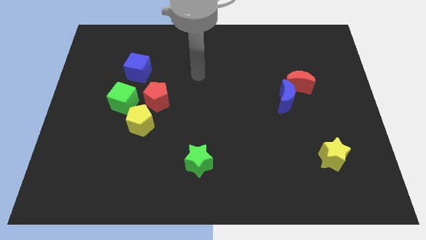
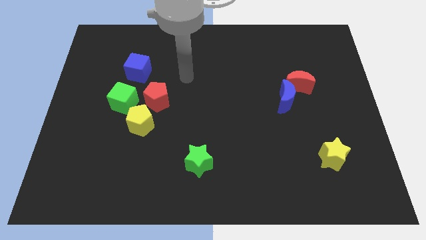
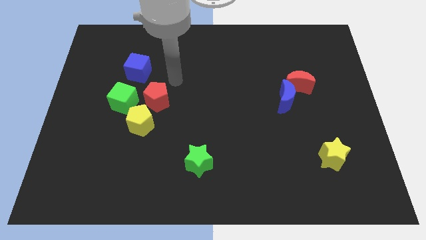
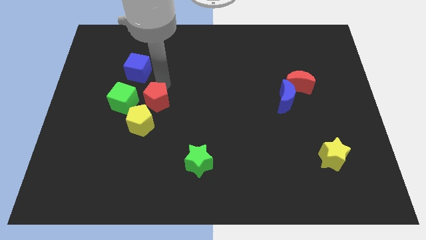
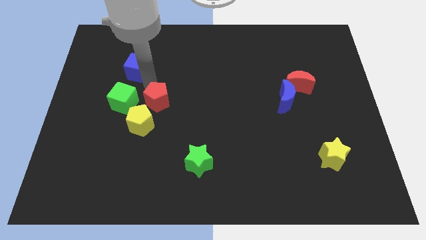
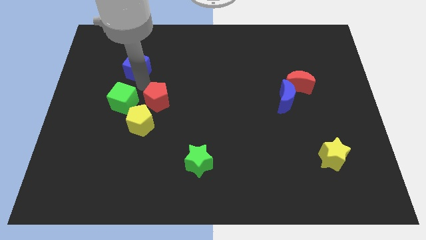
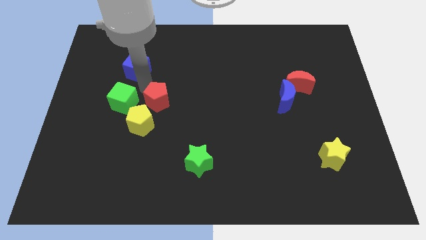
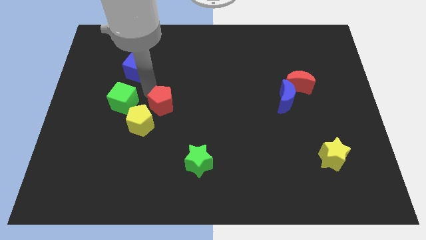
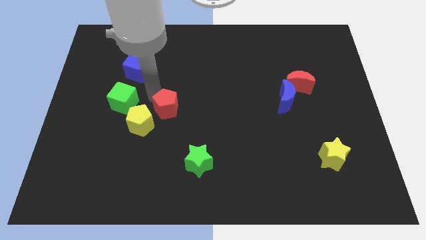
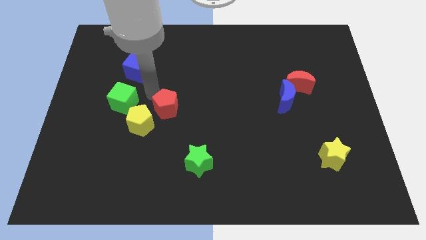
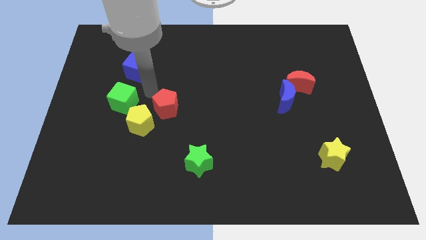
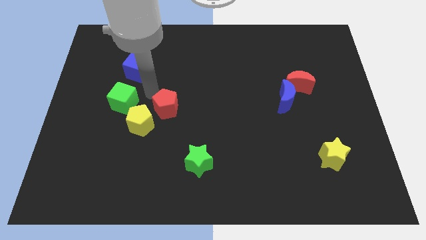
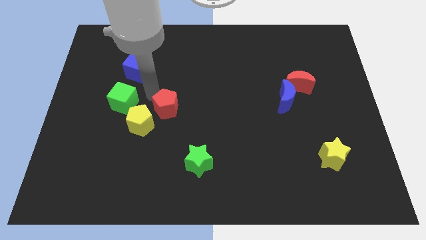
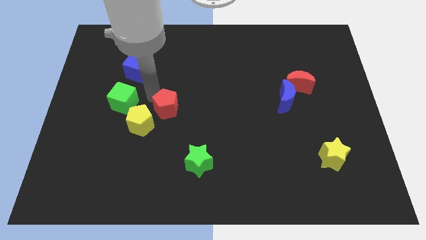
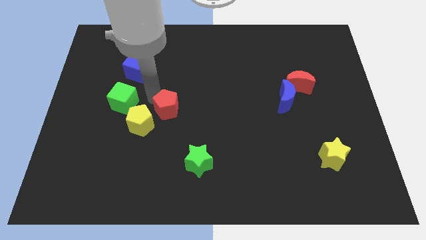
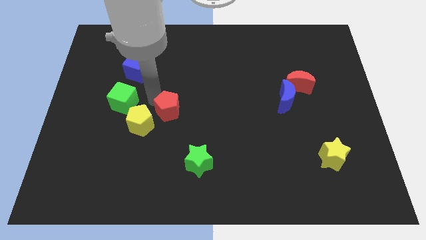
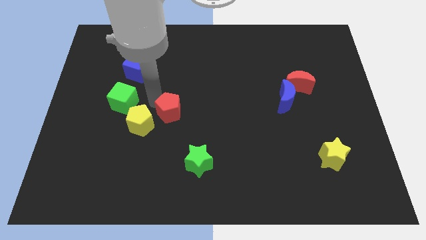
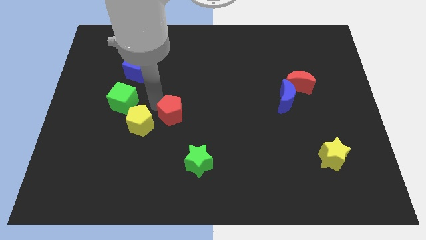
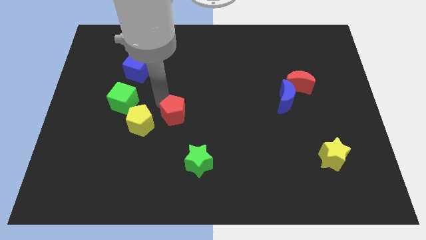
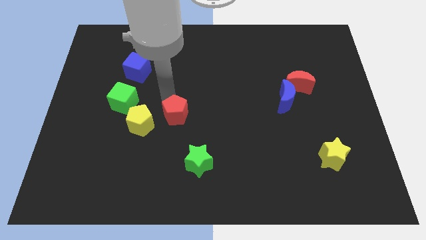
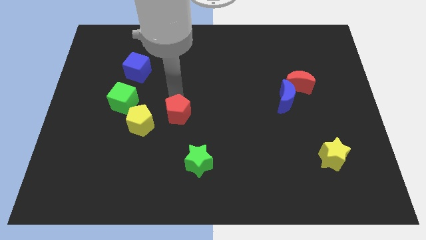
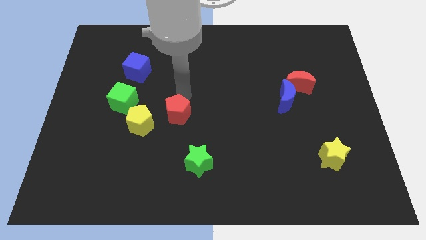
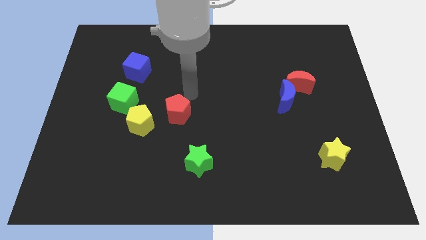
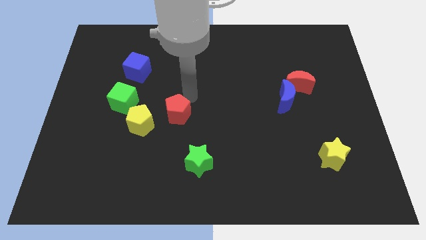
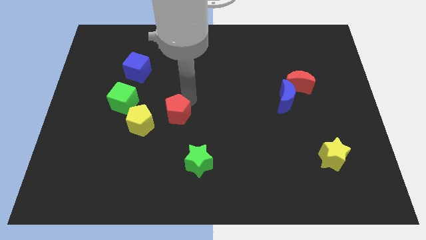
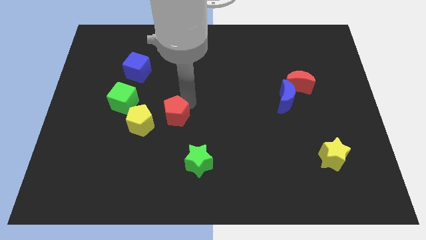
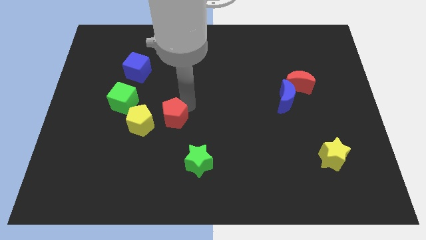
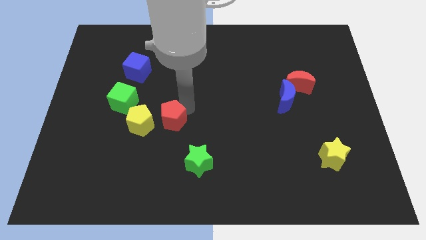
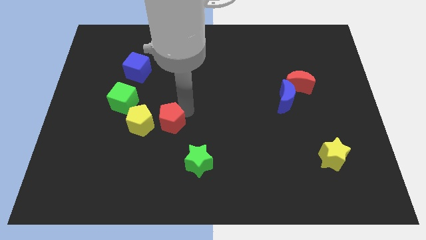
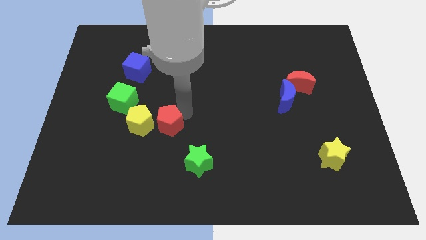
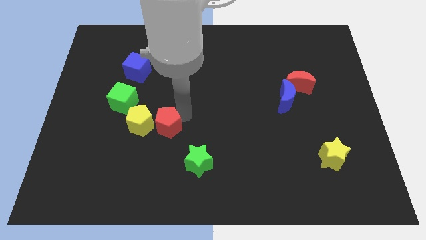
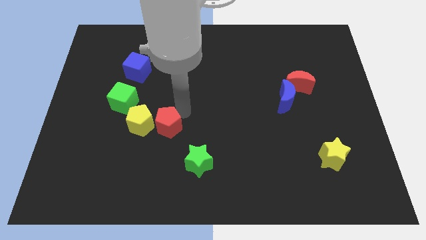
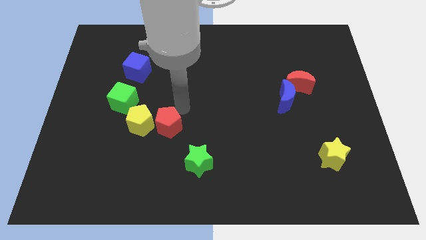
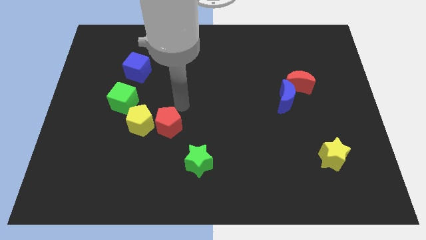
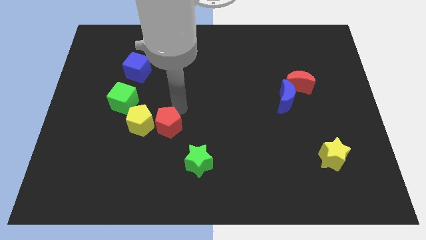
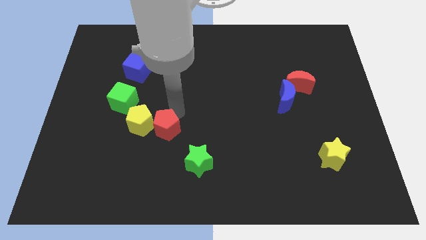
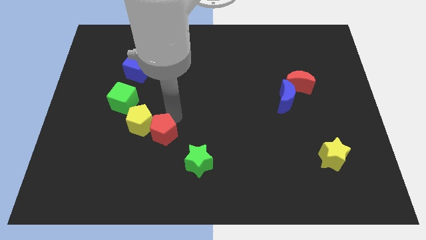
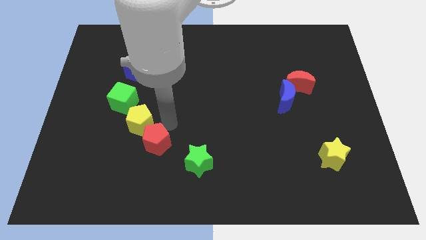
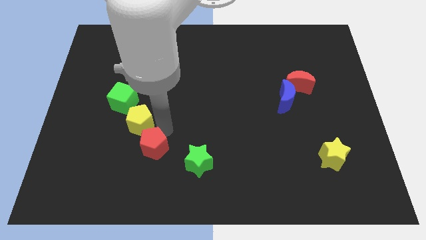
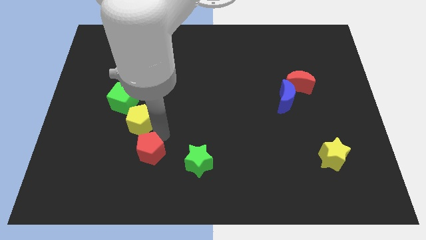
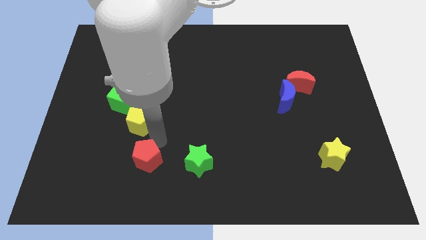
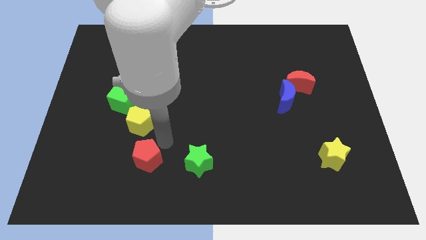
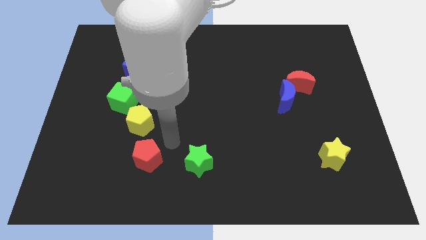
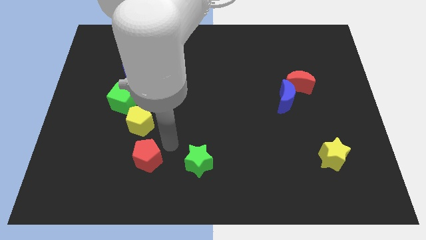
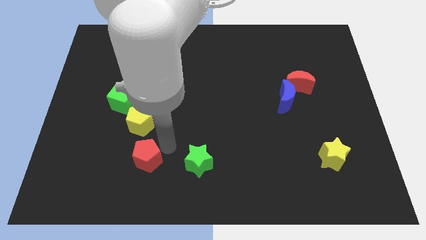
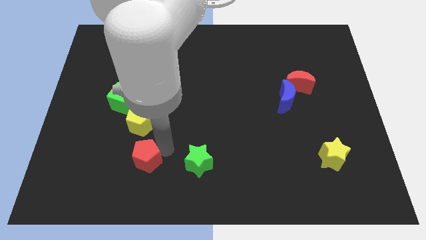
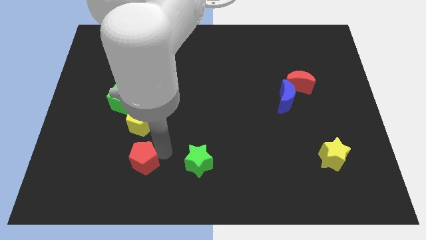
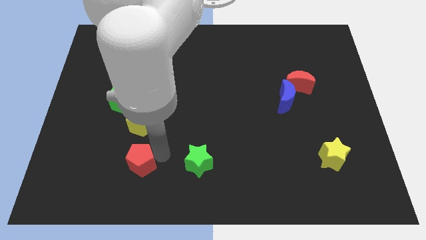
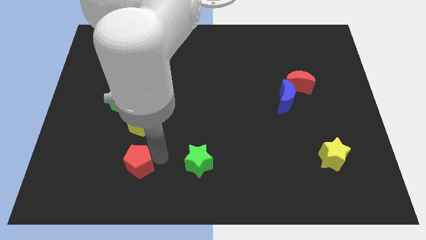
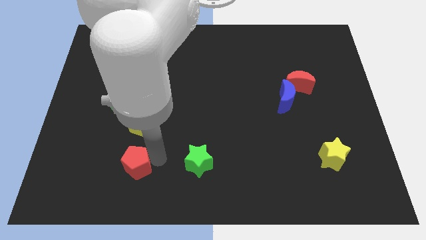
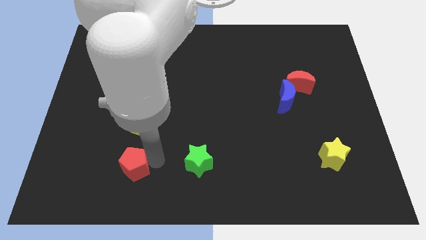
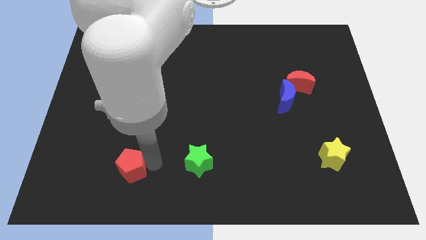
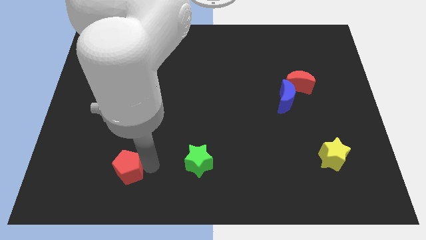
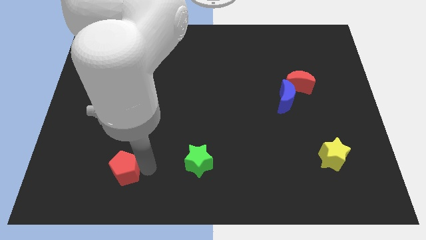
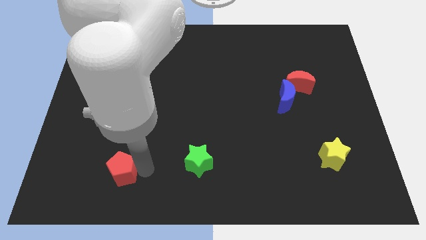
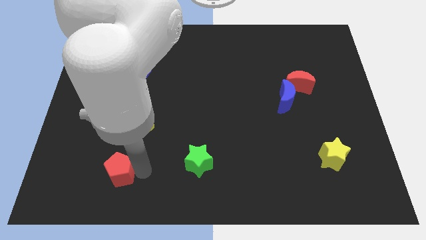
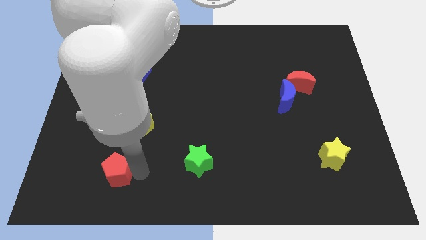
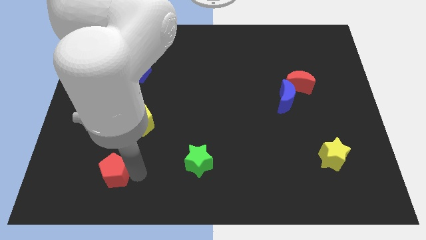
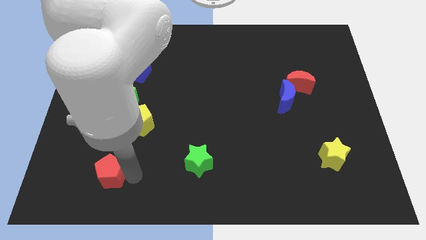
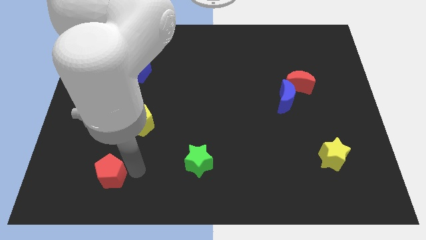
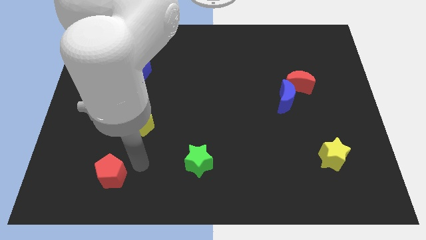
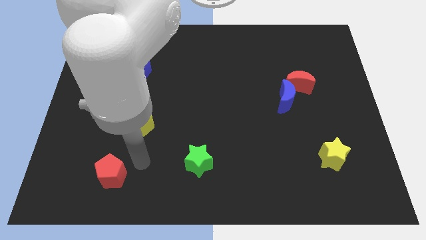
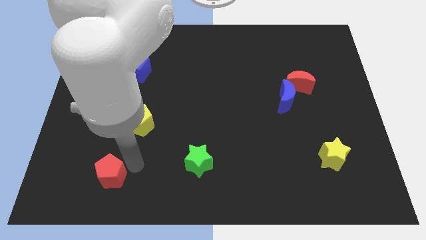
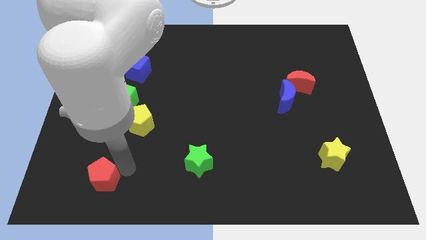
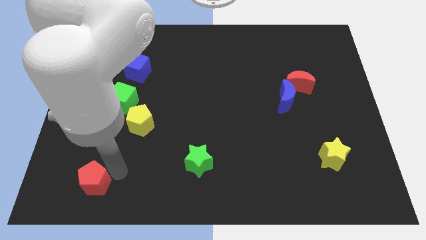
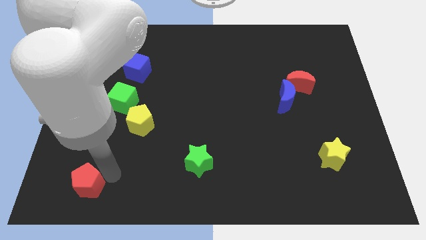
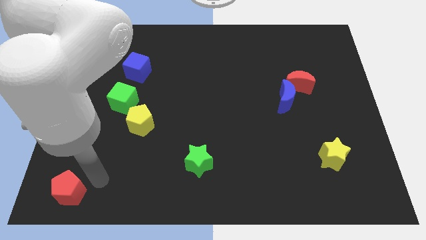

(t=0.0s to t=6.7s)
put the red pentagon to the lower left corner
